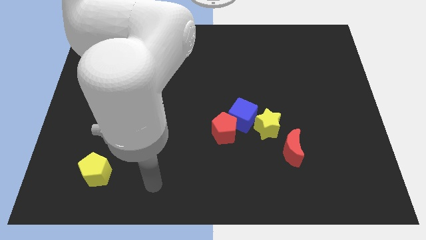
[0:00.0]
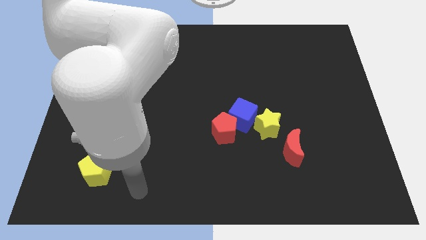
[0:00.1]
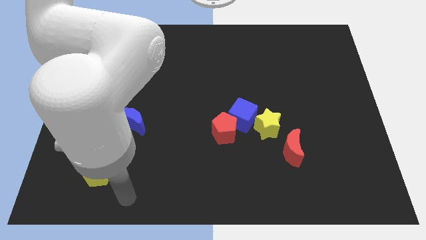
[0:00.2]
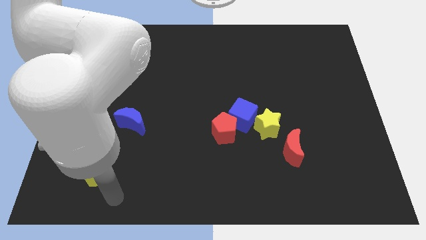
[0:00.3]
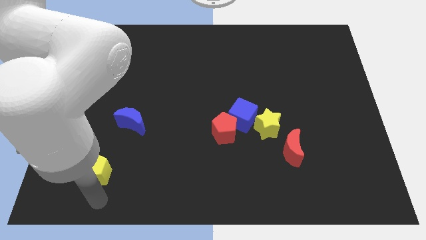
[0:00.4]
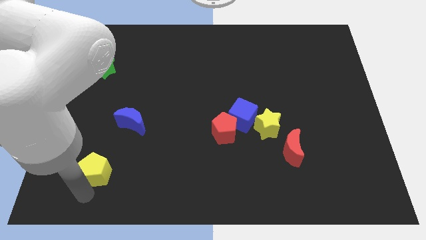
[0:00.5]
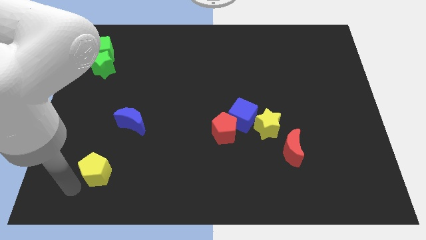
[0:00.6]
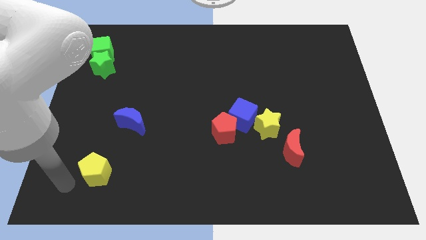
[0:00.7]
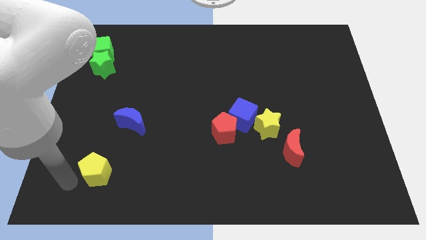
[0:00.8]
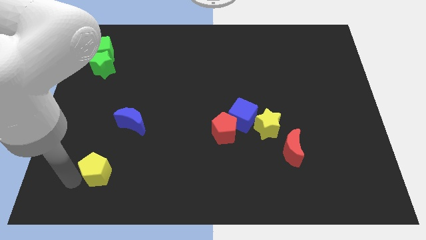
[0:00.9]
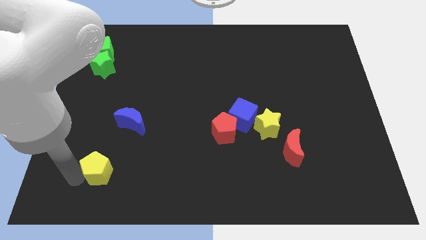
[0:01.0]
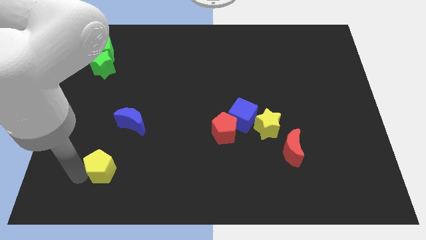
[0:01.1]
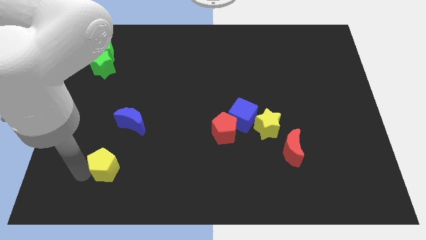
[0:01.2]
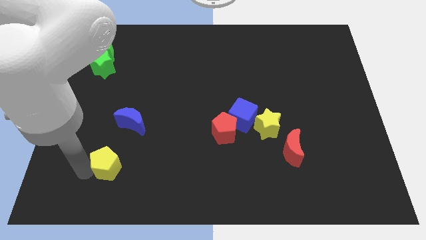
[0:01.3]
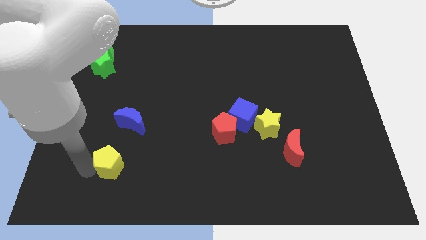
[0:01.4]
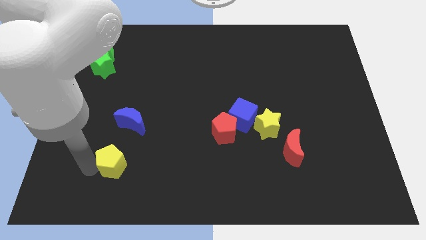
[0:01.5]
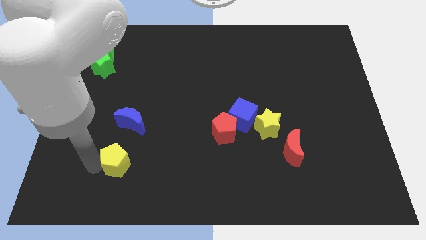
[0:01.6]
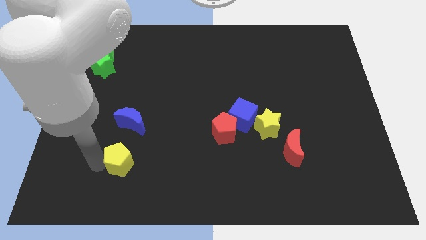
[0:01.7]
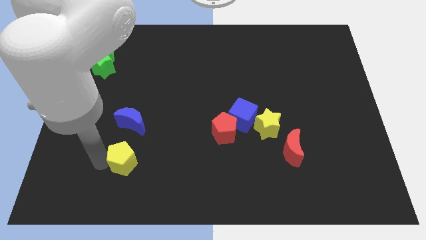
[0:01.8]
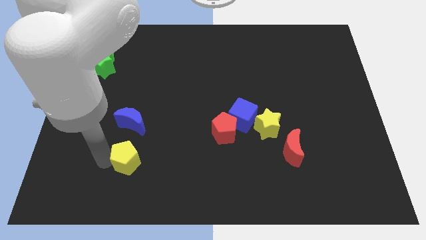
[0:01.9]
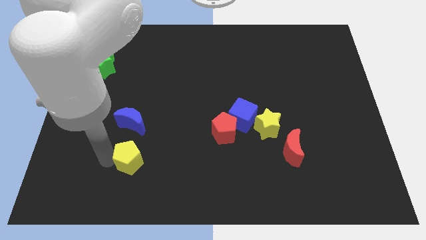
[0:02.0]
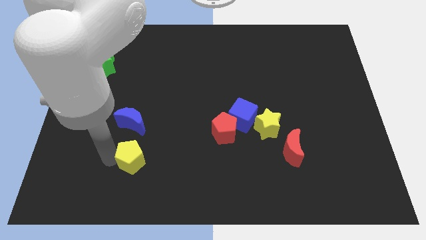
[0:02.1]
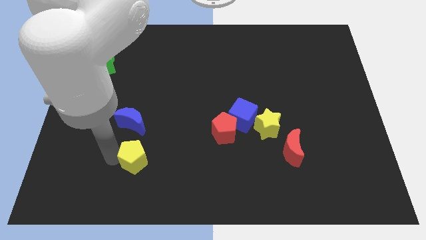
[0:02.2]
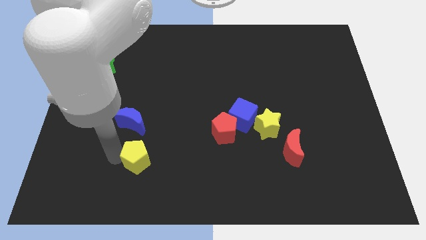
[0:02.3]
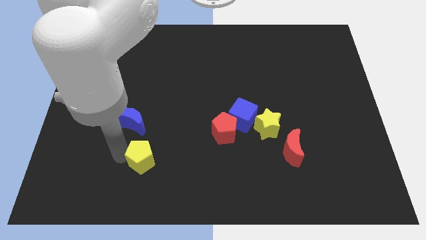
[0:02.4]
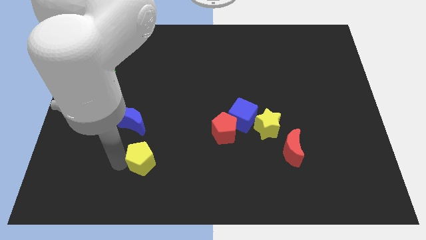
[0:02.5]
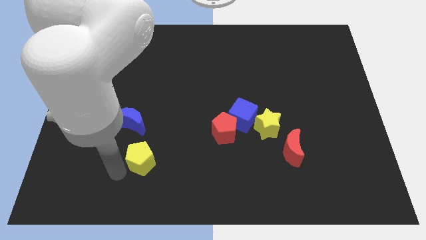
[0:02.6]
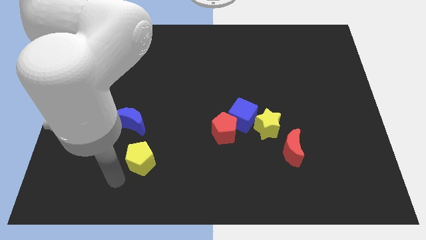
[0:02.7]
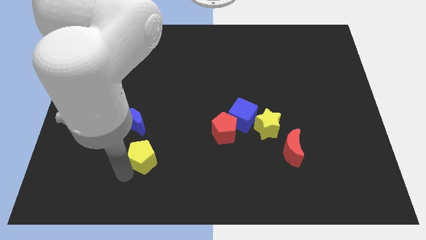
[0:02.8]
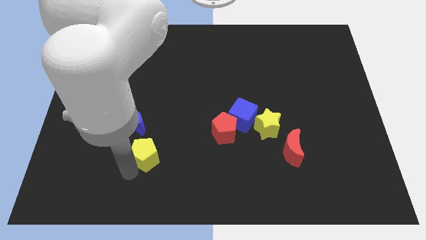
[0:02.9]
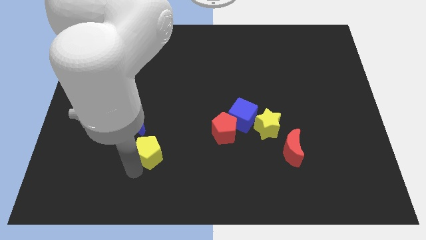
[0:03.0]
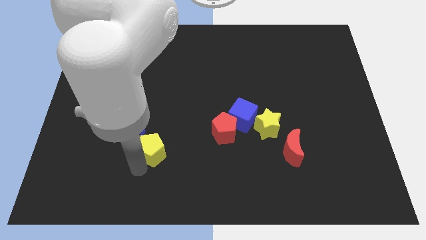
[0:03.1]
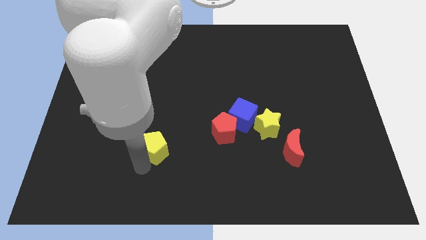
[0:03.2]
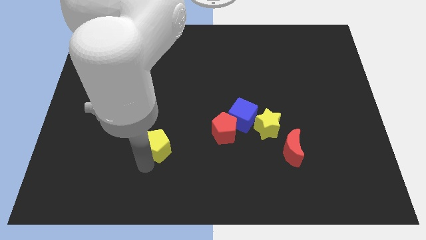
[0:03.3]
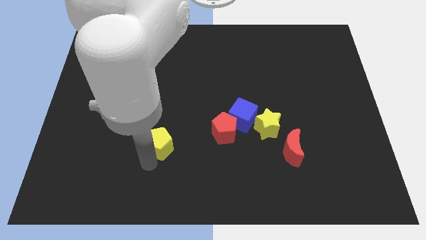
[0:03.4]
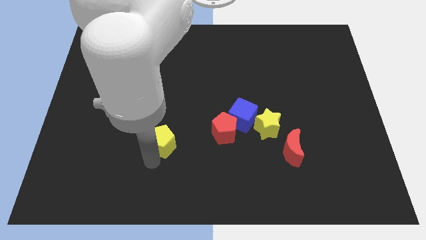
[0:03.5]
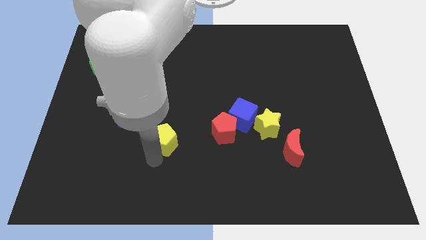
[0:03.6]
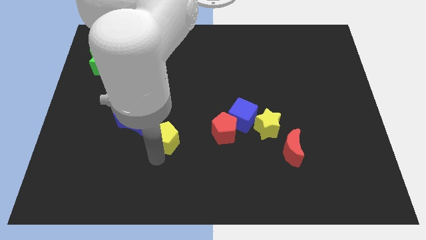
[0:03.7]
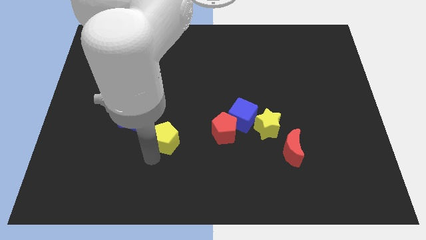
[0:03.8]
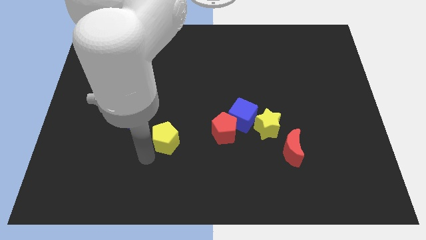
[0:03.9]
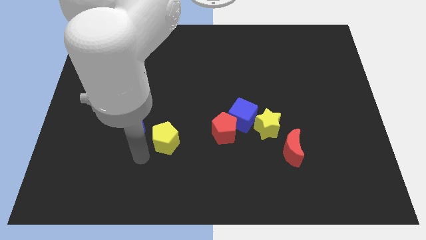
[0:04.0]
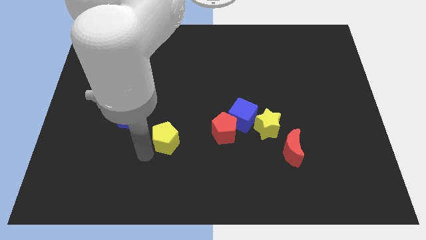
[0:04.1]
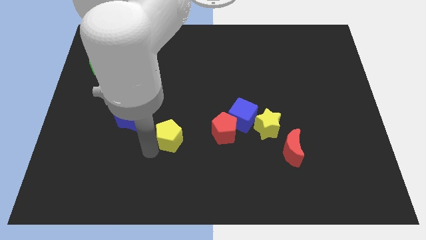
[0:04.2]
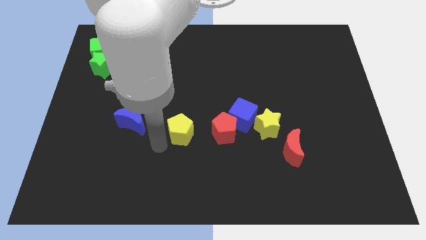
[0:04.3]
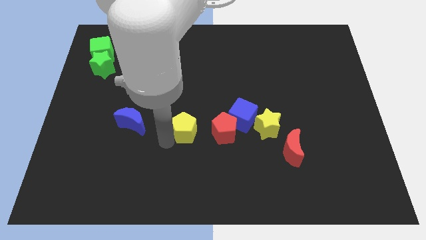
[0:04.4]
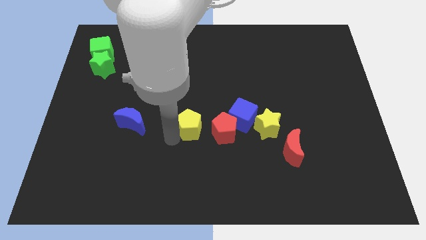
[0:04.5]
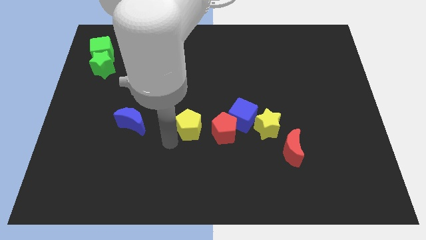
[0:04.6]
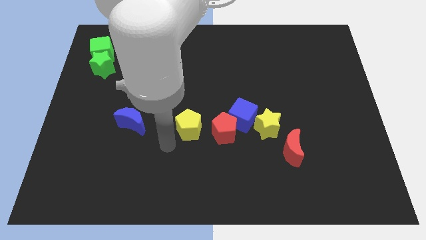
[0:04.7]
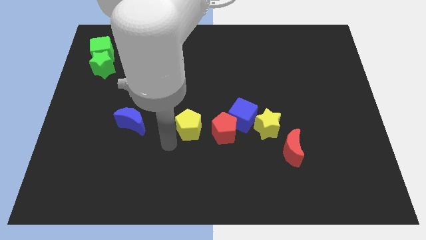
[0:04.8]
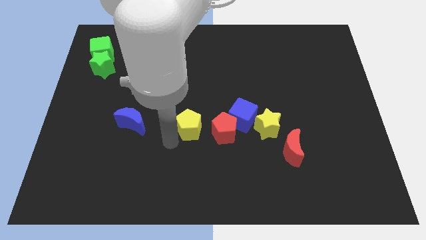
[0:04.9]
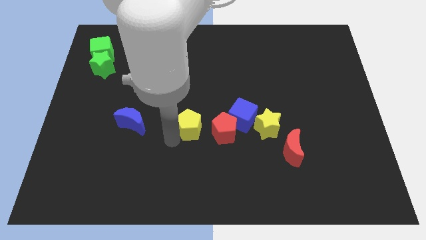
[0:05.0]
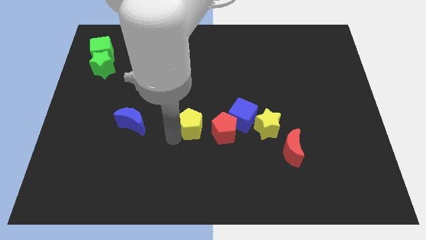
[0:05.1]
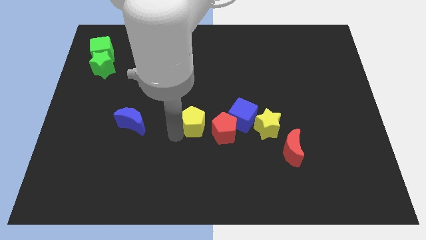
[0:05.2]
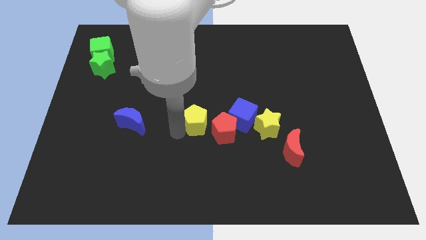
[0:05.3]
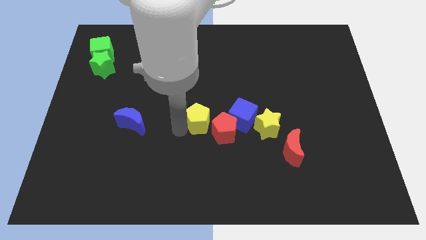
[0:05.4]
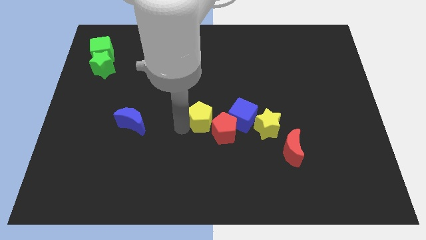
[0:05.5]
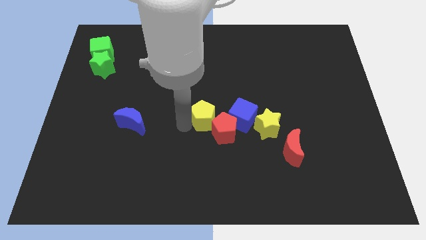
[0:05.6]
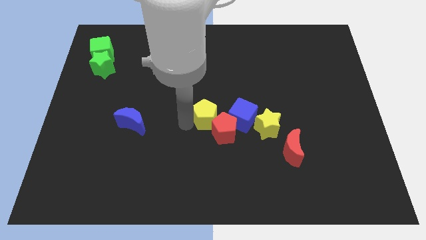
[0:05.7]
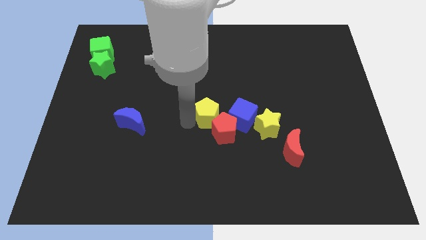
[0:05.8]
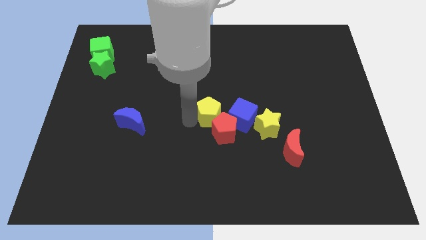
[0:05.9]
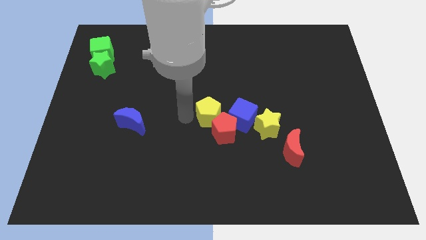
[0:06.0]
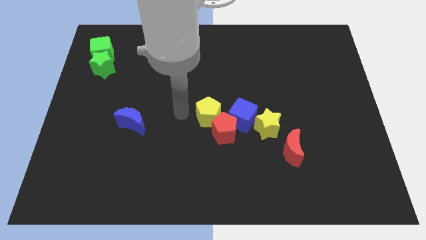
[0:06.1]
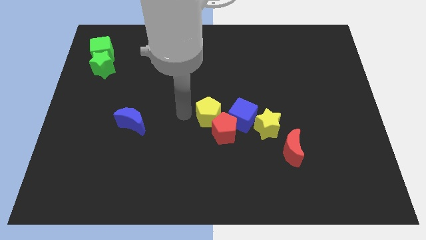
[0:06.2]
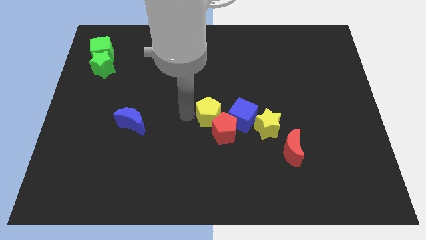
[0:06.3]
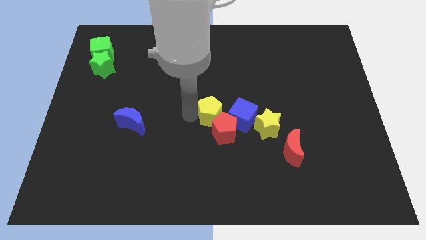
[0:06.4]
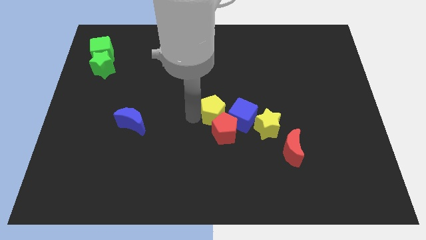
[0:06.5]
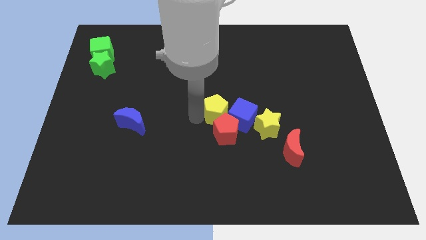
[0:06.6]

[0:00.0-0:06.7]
move the yellow pentagon towards the blue cube
